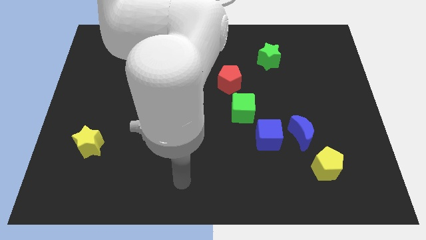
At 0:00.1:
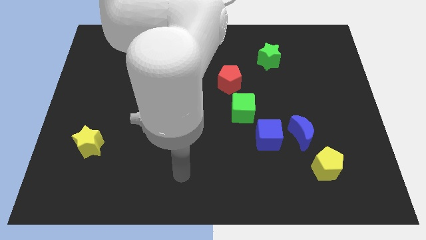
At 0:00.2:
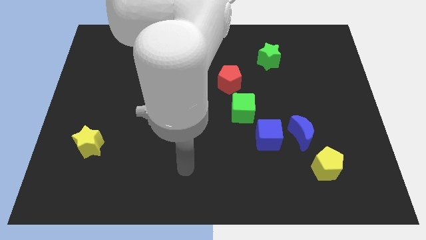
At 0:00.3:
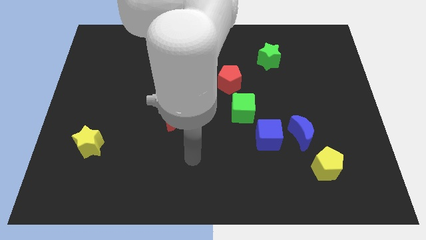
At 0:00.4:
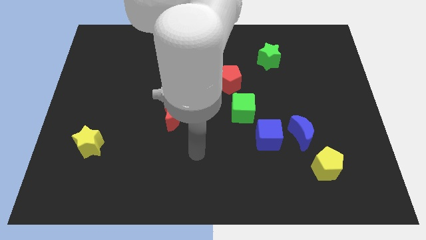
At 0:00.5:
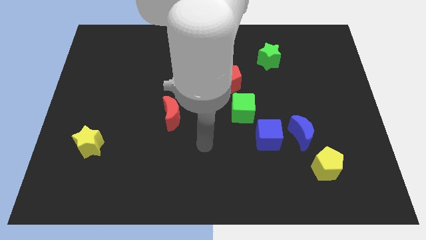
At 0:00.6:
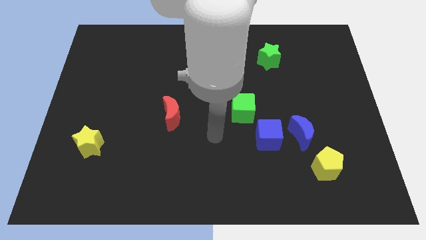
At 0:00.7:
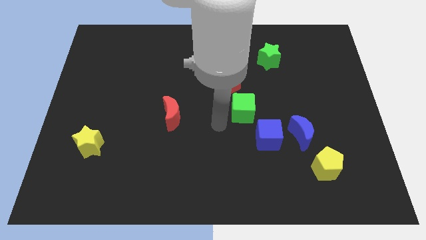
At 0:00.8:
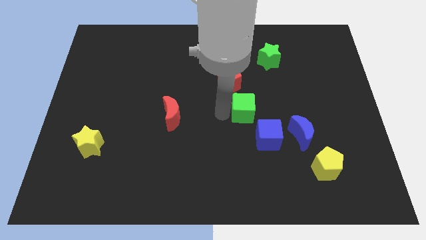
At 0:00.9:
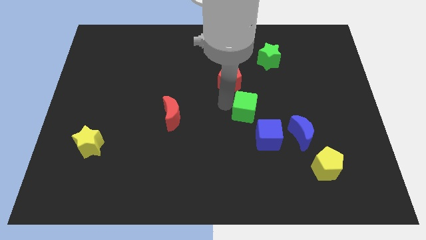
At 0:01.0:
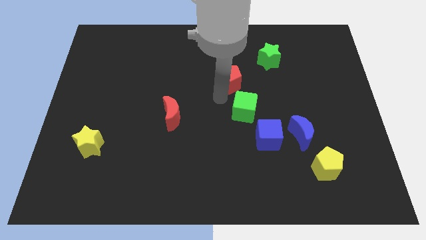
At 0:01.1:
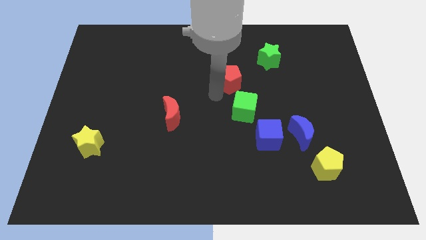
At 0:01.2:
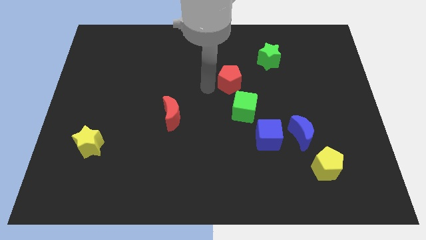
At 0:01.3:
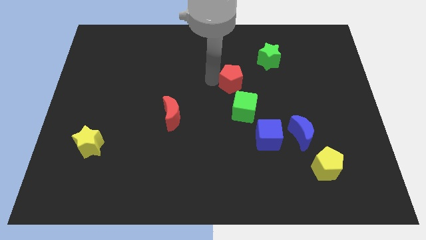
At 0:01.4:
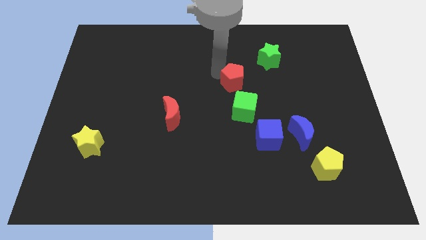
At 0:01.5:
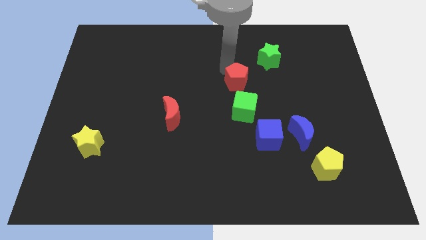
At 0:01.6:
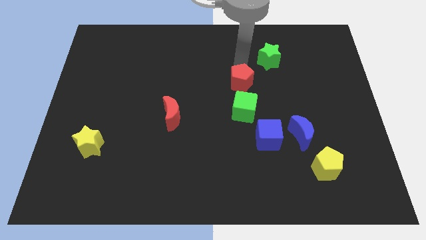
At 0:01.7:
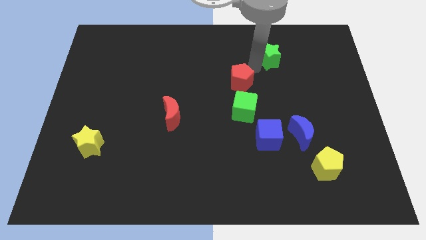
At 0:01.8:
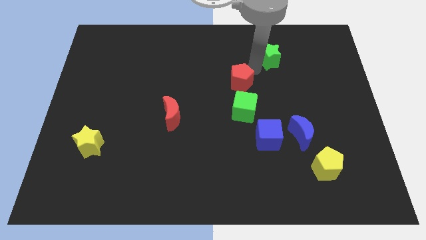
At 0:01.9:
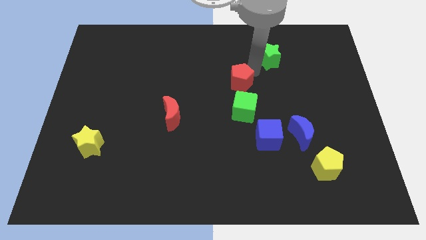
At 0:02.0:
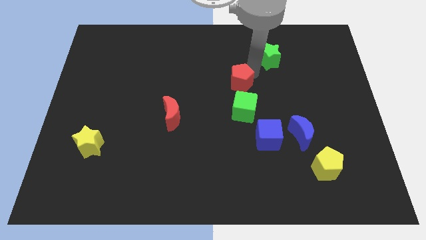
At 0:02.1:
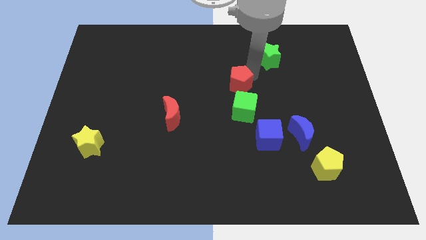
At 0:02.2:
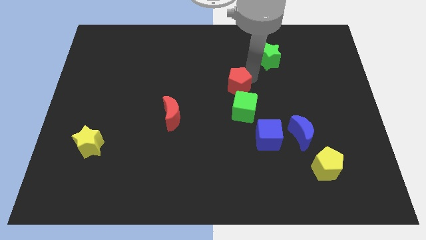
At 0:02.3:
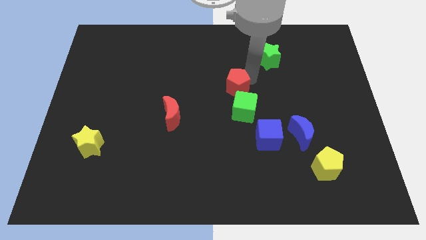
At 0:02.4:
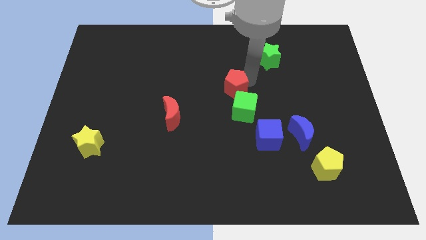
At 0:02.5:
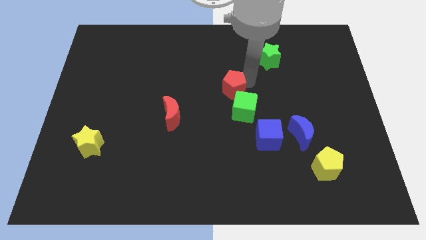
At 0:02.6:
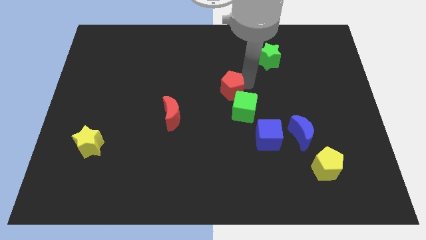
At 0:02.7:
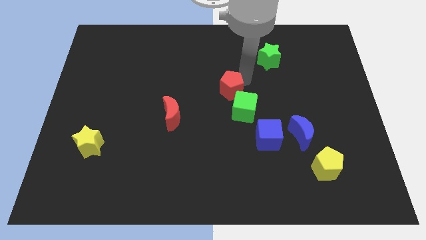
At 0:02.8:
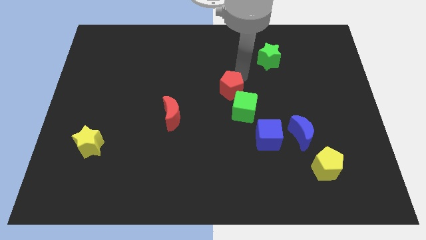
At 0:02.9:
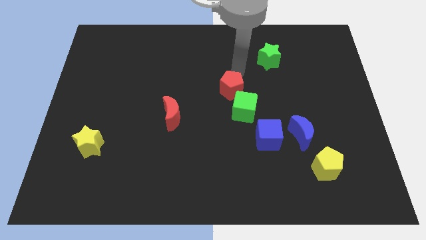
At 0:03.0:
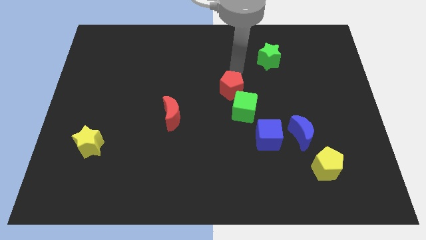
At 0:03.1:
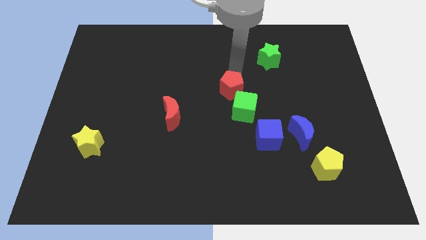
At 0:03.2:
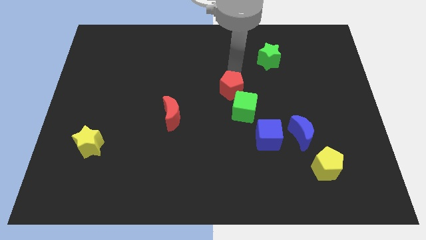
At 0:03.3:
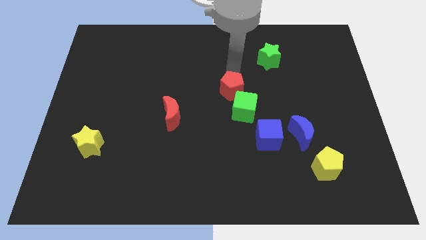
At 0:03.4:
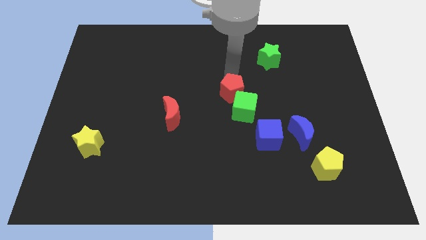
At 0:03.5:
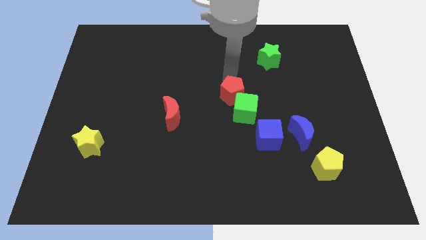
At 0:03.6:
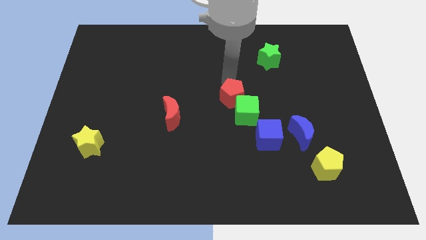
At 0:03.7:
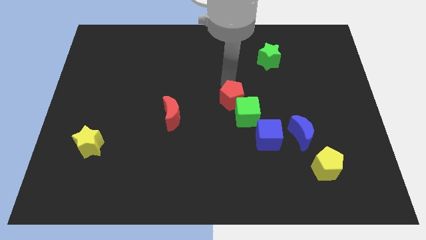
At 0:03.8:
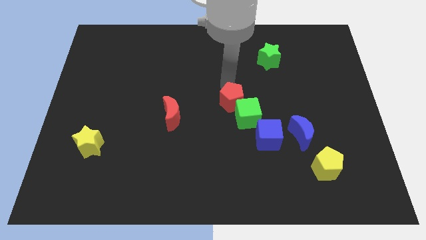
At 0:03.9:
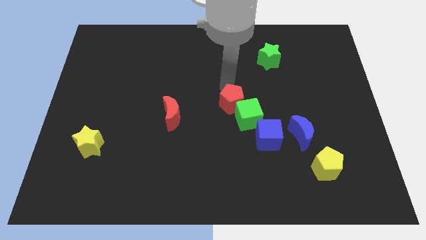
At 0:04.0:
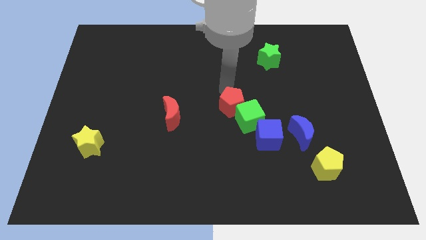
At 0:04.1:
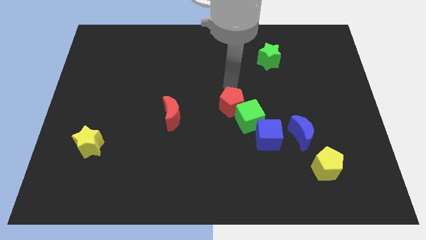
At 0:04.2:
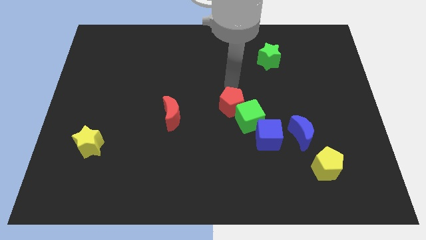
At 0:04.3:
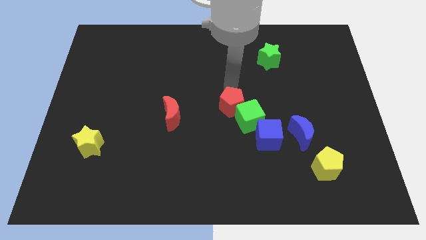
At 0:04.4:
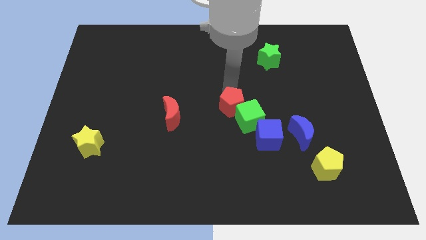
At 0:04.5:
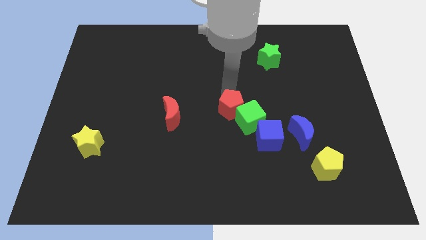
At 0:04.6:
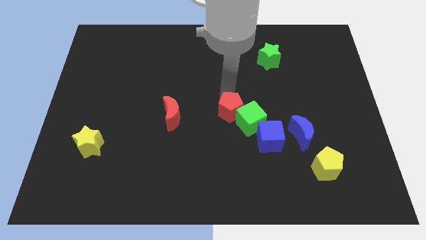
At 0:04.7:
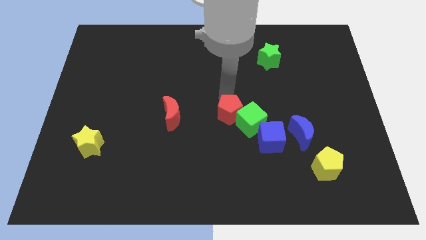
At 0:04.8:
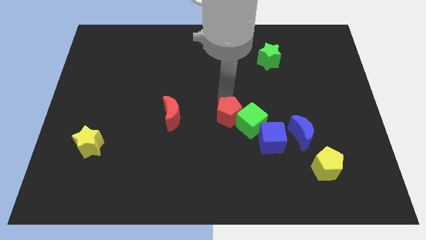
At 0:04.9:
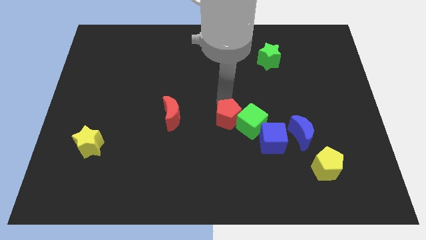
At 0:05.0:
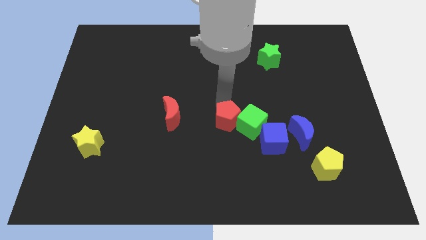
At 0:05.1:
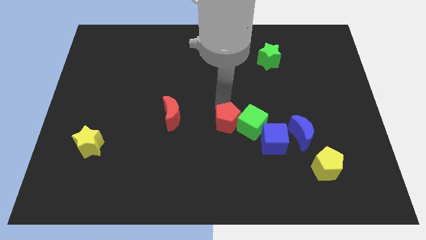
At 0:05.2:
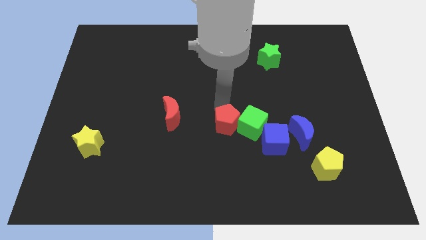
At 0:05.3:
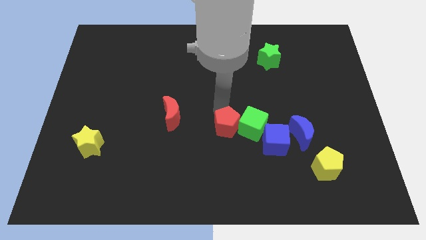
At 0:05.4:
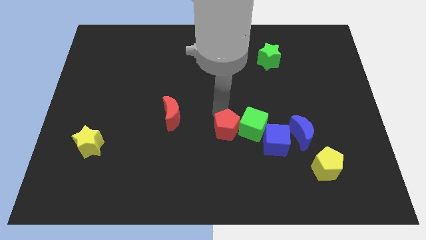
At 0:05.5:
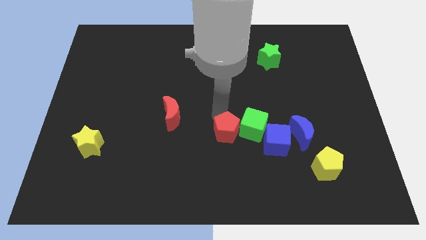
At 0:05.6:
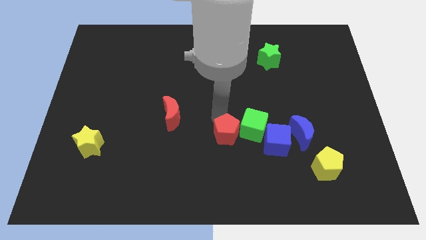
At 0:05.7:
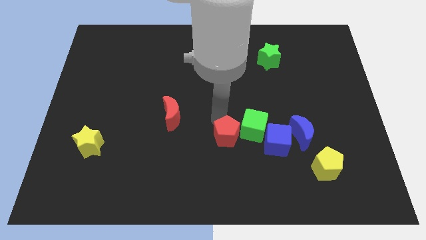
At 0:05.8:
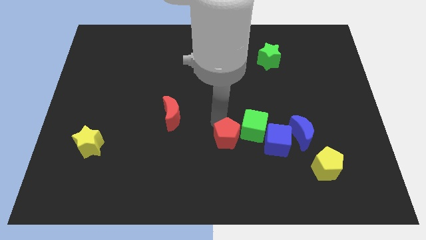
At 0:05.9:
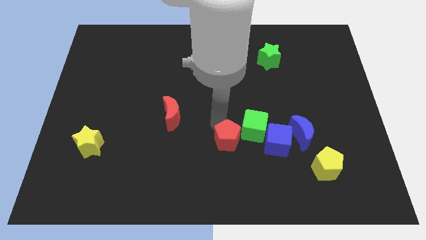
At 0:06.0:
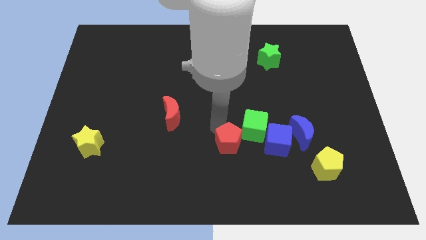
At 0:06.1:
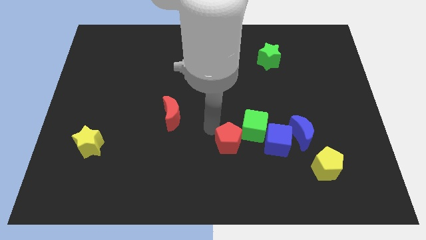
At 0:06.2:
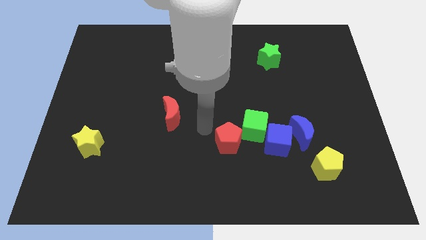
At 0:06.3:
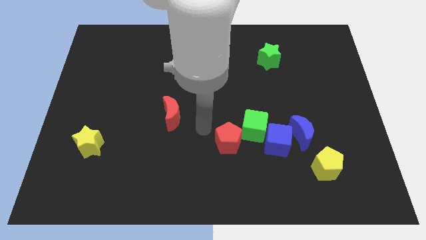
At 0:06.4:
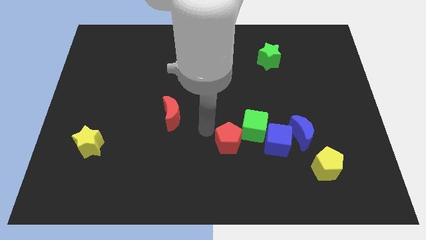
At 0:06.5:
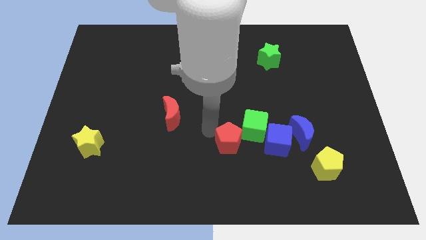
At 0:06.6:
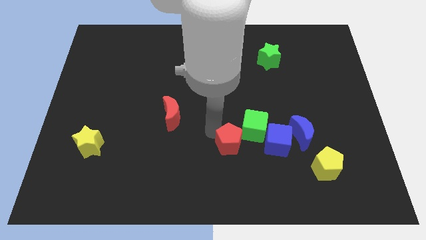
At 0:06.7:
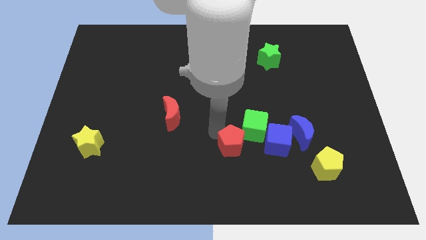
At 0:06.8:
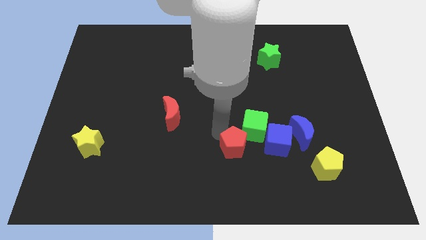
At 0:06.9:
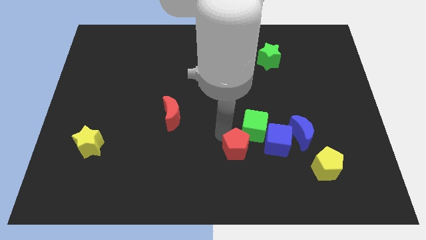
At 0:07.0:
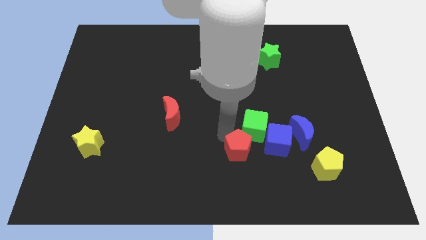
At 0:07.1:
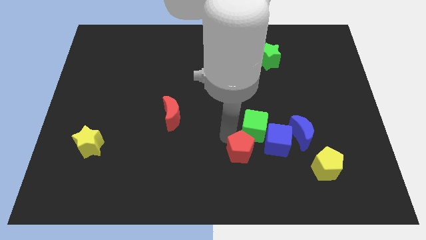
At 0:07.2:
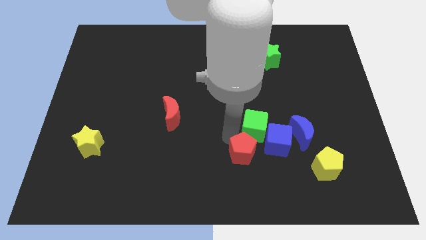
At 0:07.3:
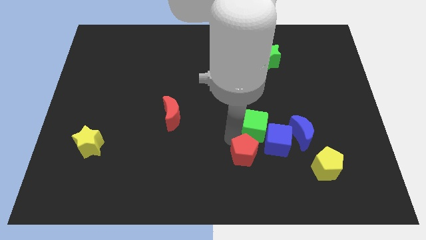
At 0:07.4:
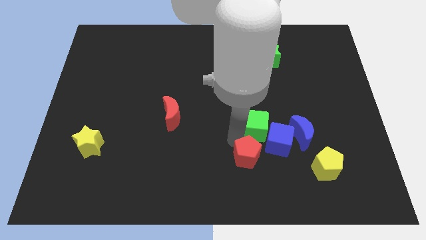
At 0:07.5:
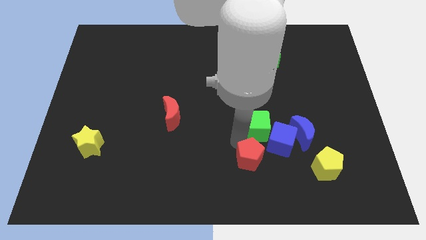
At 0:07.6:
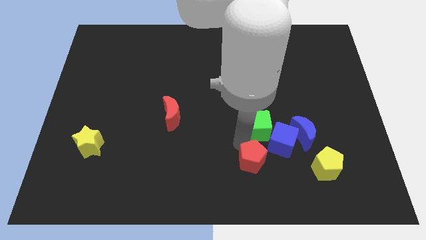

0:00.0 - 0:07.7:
slide the red pentagon to the left of the yellow pentagon
